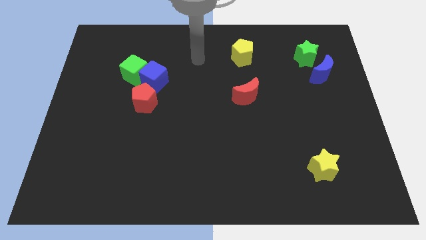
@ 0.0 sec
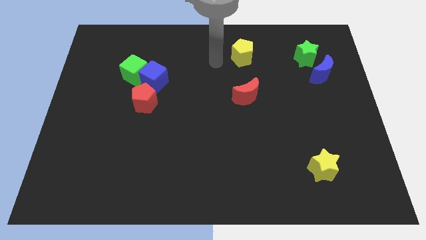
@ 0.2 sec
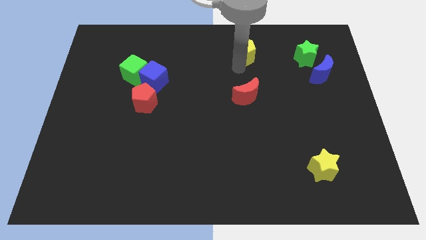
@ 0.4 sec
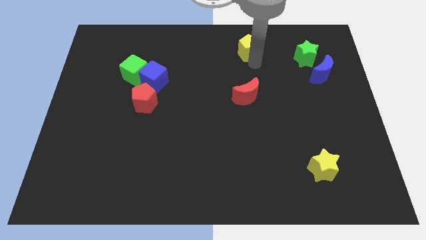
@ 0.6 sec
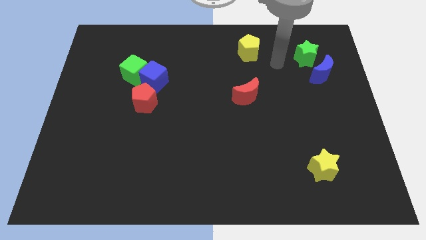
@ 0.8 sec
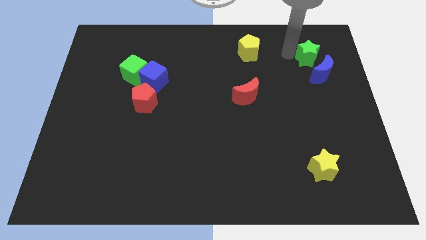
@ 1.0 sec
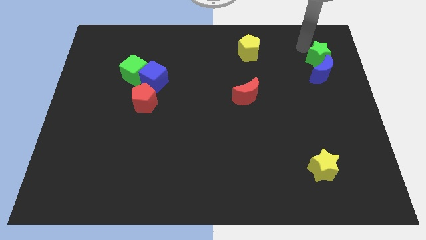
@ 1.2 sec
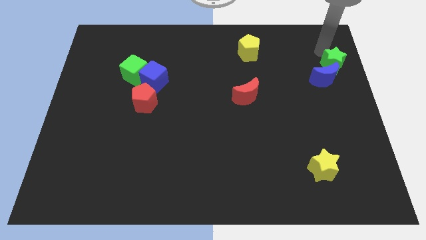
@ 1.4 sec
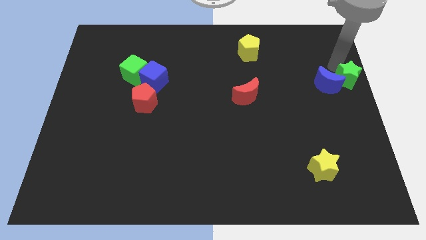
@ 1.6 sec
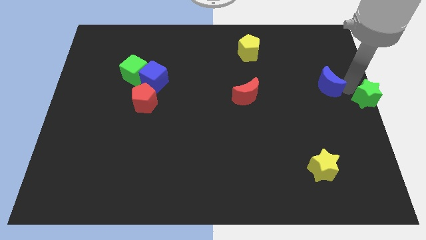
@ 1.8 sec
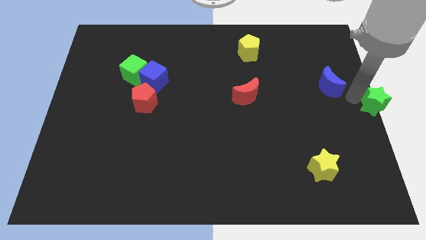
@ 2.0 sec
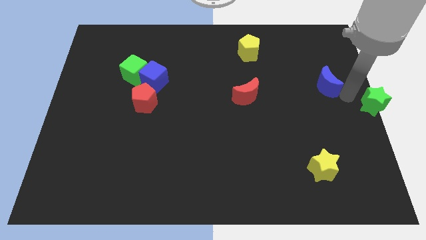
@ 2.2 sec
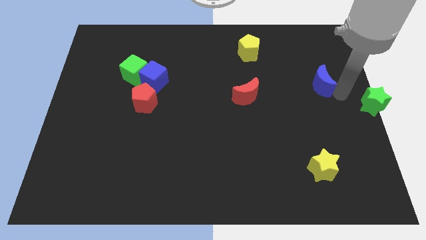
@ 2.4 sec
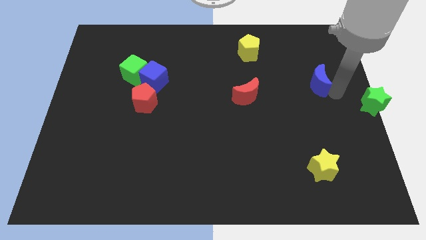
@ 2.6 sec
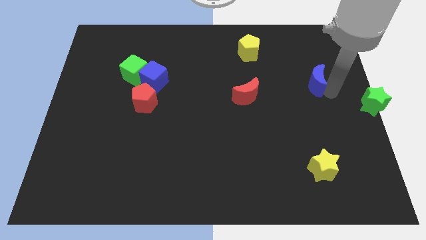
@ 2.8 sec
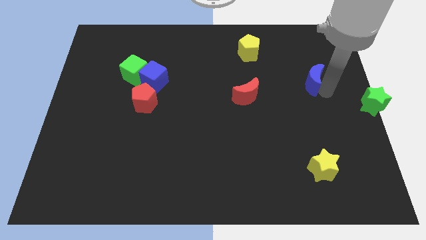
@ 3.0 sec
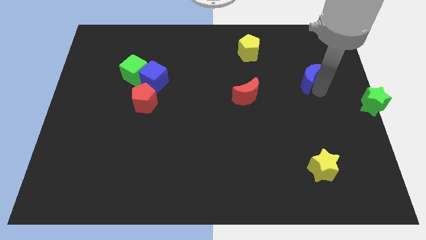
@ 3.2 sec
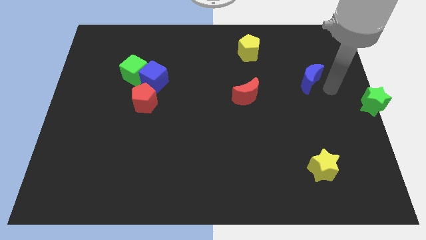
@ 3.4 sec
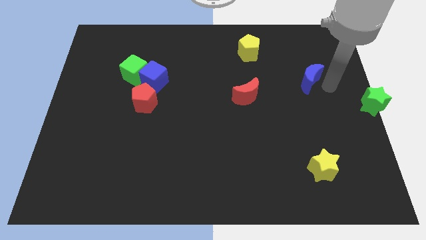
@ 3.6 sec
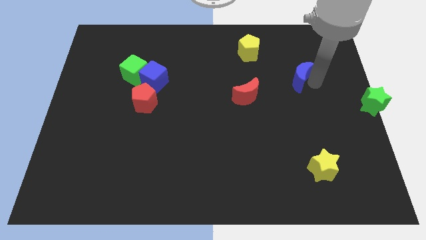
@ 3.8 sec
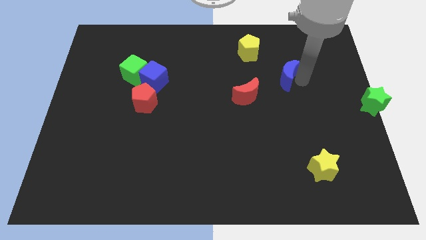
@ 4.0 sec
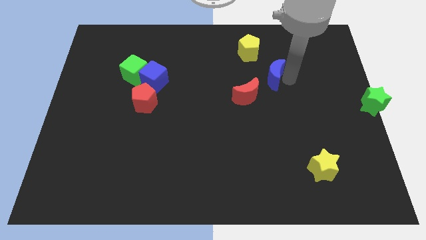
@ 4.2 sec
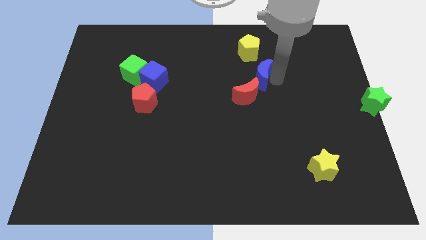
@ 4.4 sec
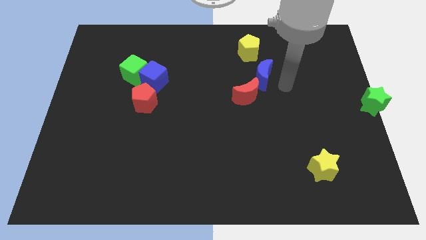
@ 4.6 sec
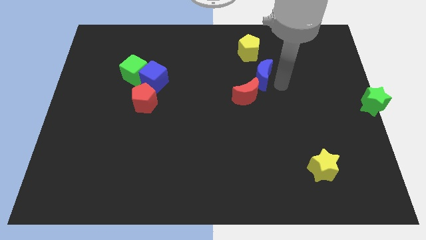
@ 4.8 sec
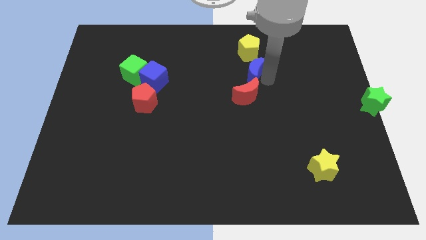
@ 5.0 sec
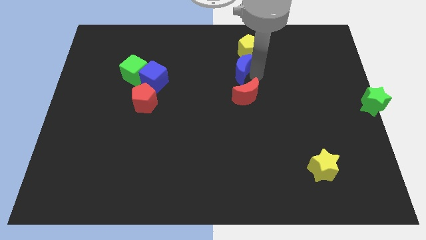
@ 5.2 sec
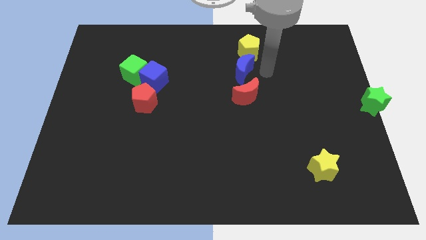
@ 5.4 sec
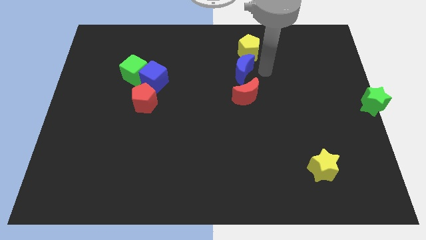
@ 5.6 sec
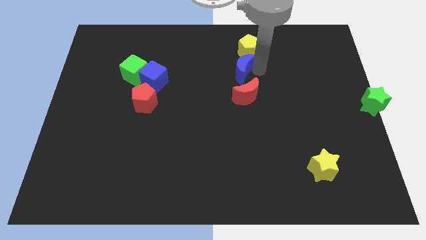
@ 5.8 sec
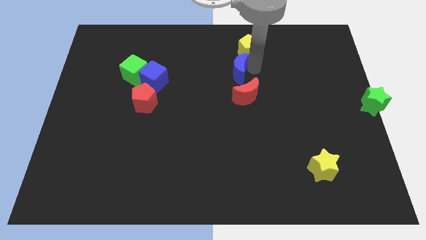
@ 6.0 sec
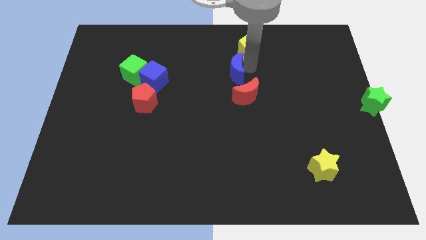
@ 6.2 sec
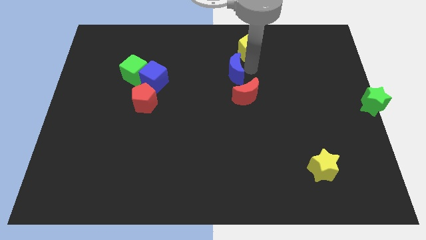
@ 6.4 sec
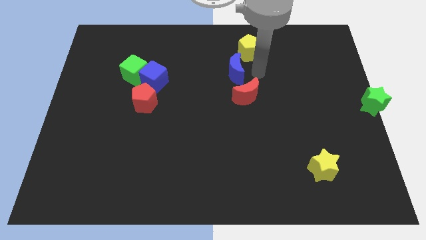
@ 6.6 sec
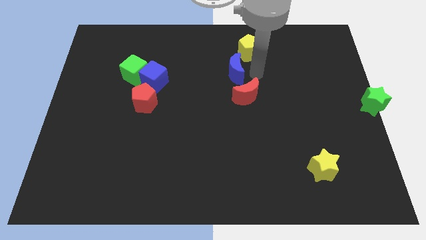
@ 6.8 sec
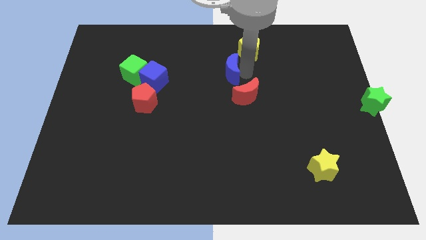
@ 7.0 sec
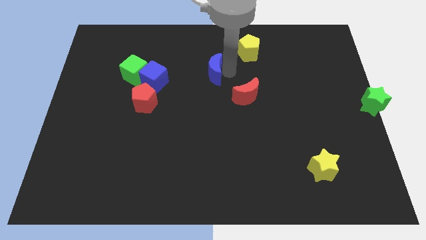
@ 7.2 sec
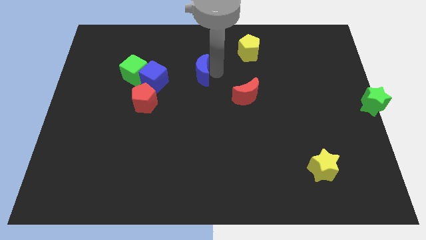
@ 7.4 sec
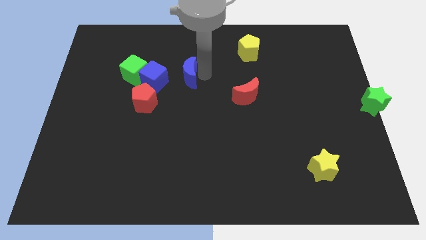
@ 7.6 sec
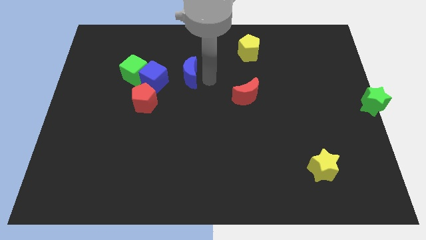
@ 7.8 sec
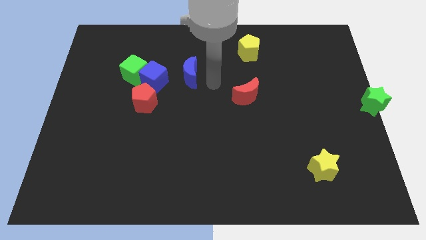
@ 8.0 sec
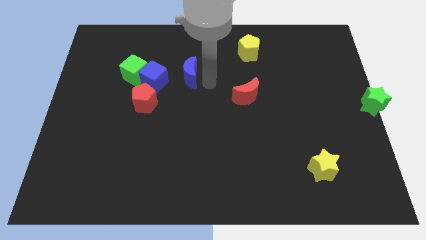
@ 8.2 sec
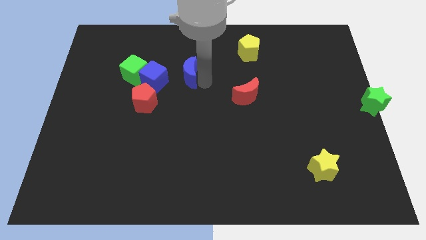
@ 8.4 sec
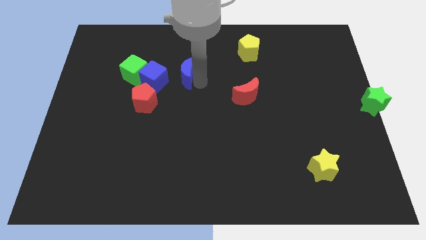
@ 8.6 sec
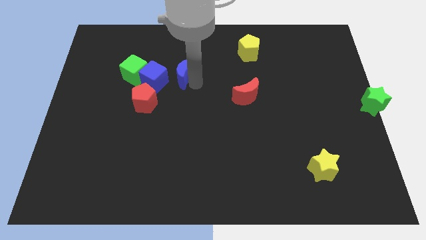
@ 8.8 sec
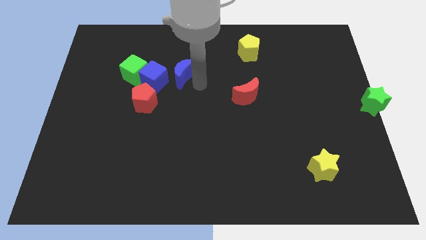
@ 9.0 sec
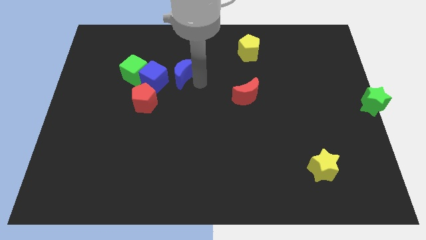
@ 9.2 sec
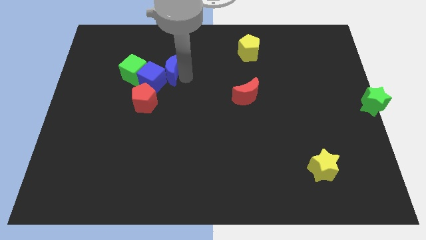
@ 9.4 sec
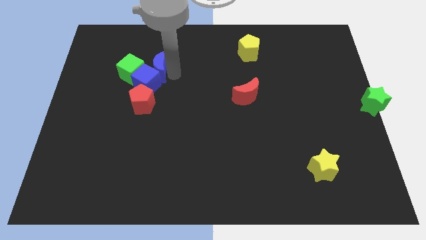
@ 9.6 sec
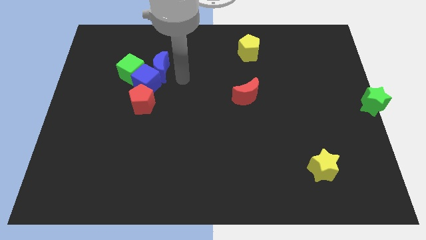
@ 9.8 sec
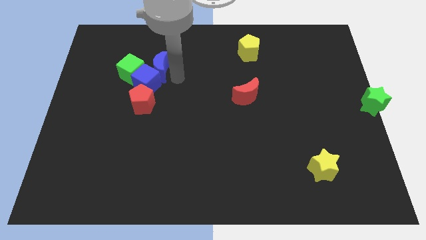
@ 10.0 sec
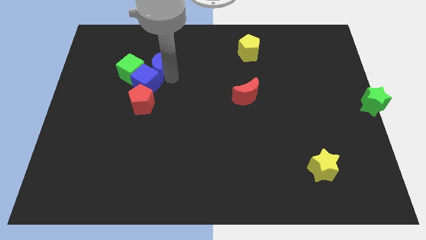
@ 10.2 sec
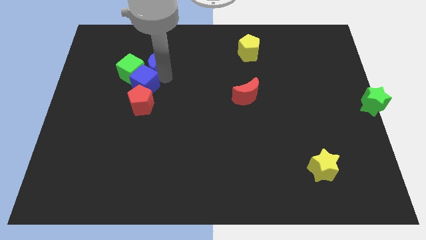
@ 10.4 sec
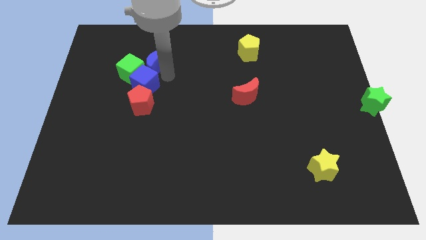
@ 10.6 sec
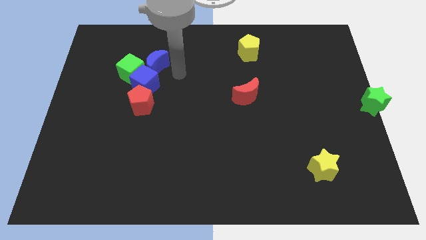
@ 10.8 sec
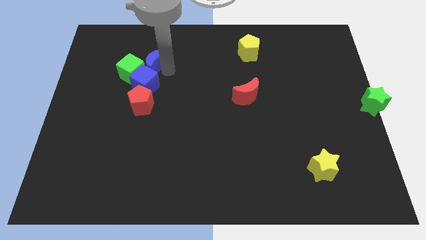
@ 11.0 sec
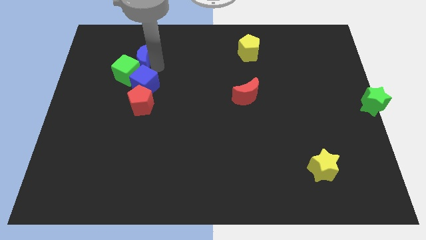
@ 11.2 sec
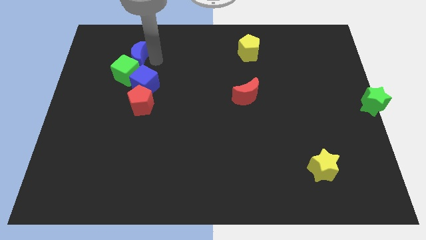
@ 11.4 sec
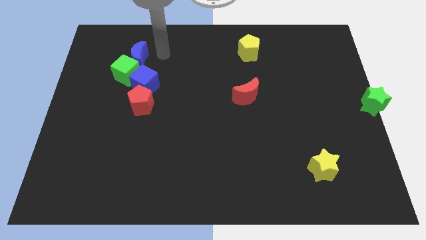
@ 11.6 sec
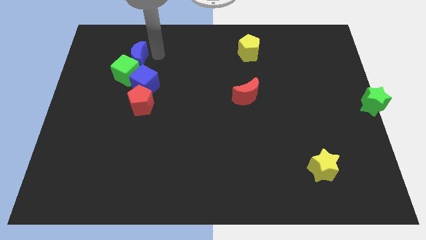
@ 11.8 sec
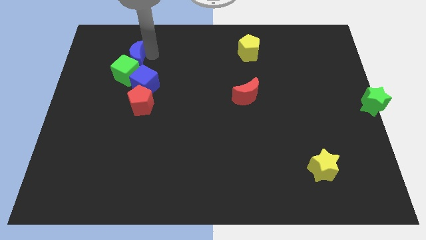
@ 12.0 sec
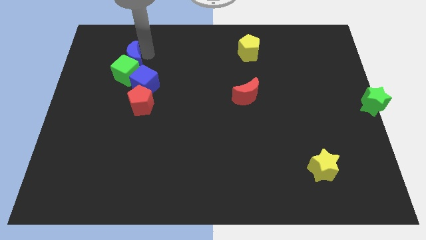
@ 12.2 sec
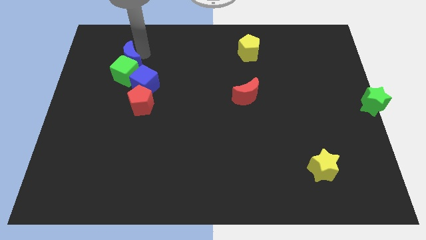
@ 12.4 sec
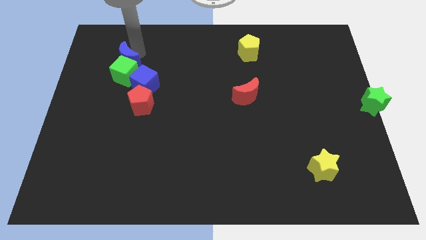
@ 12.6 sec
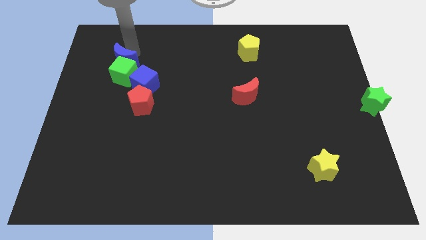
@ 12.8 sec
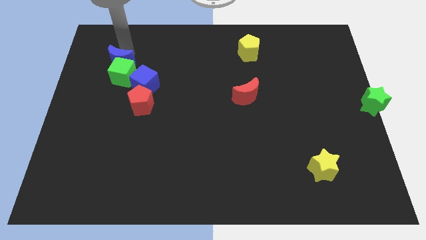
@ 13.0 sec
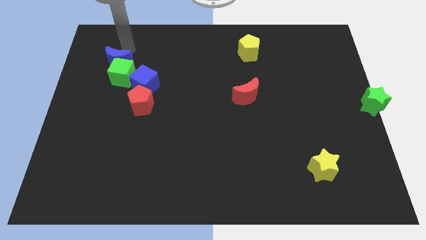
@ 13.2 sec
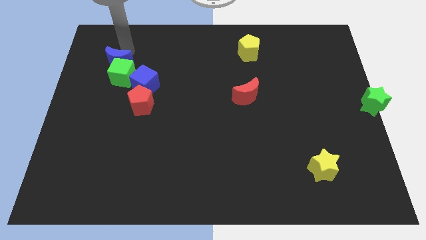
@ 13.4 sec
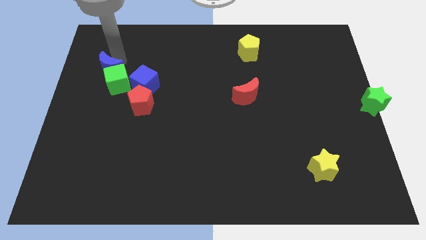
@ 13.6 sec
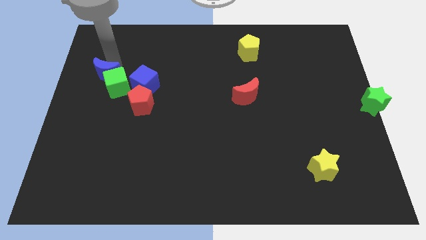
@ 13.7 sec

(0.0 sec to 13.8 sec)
put the blue moon just left of the blue cube
